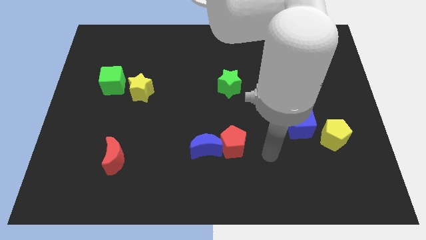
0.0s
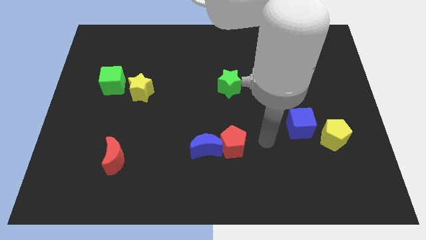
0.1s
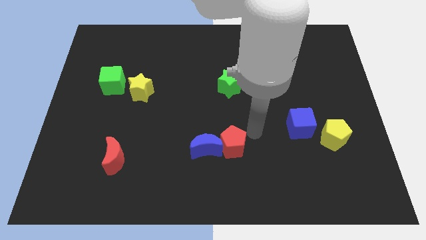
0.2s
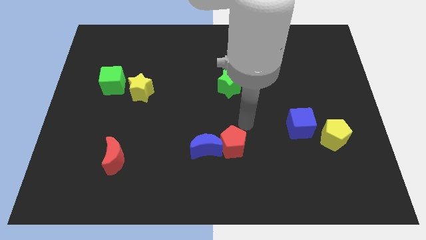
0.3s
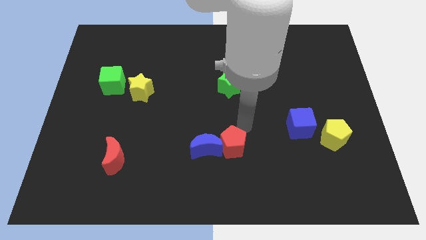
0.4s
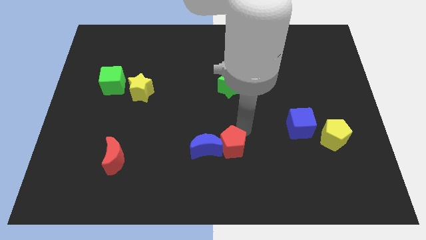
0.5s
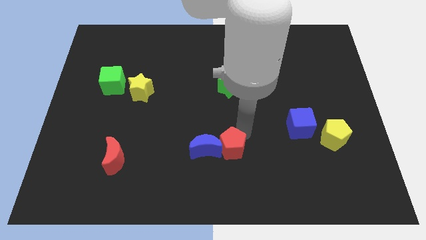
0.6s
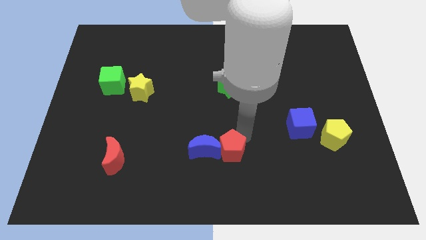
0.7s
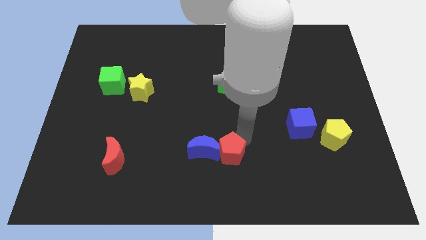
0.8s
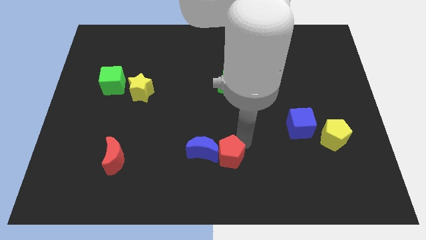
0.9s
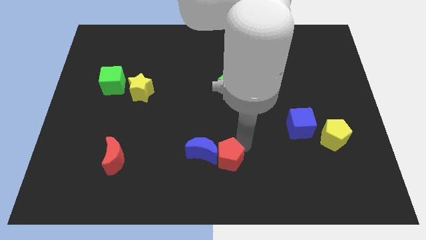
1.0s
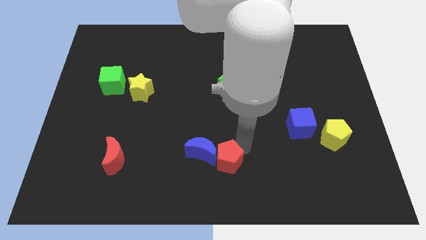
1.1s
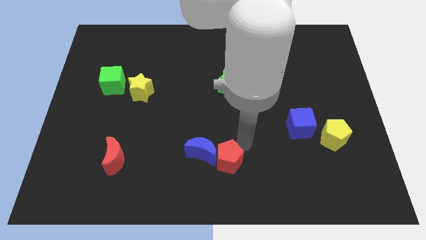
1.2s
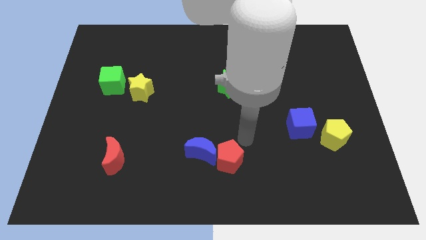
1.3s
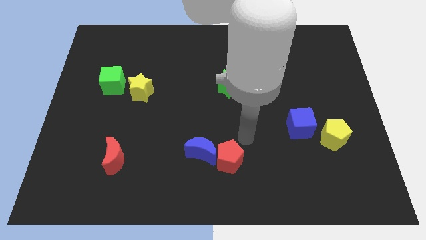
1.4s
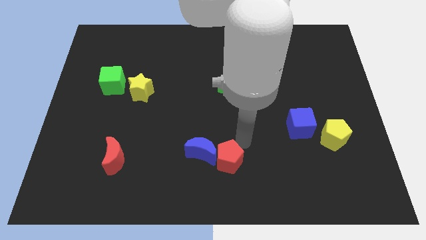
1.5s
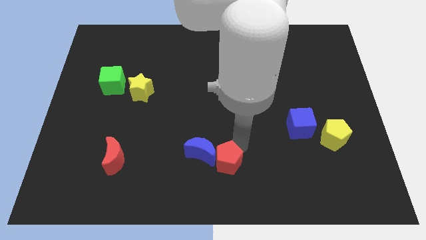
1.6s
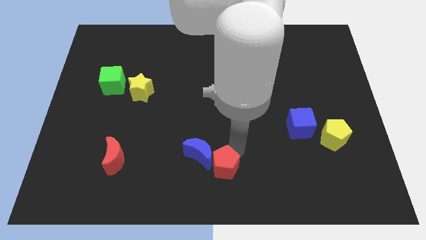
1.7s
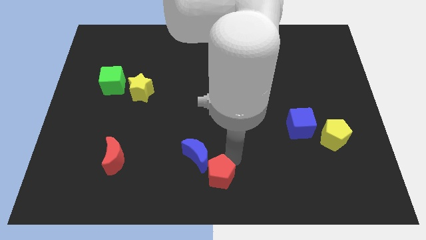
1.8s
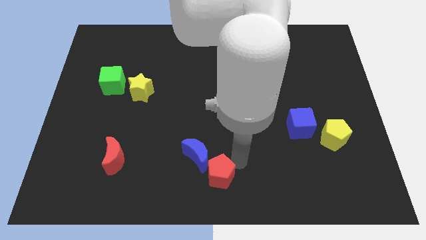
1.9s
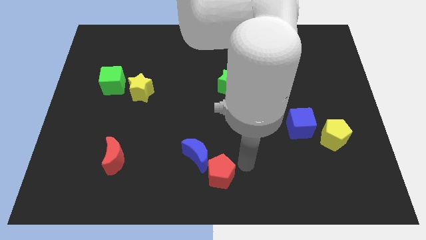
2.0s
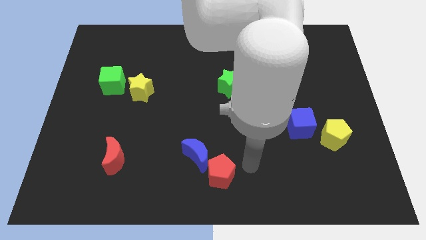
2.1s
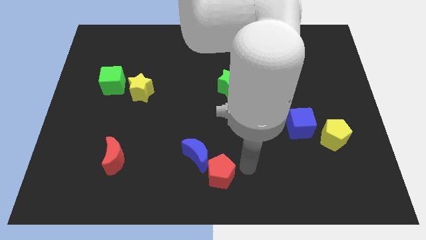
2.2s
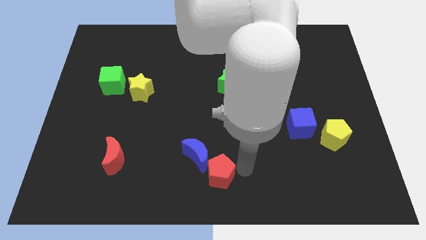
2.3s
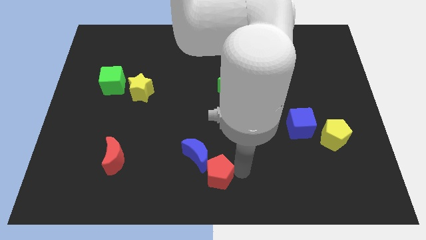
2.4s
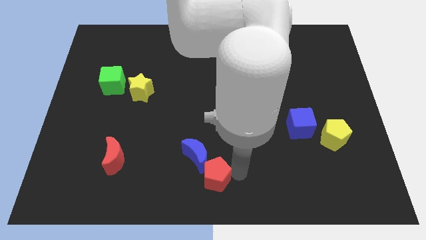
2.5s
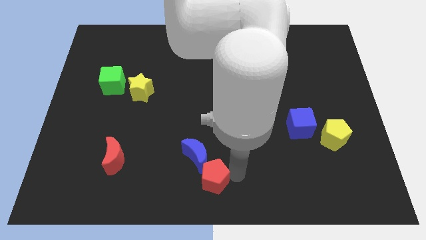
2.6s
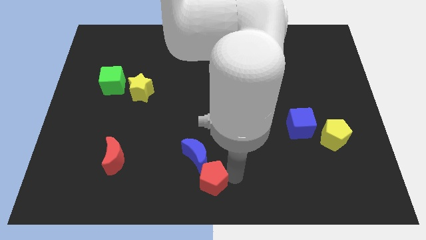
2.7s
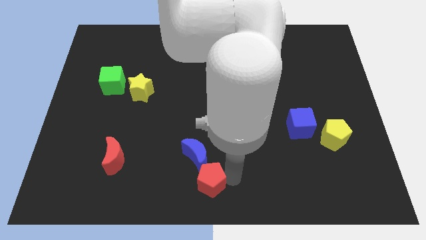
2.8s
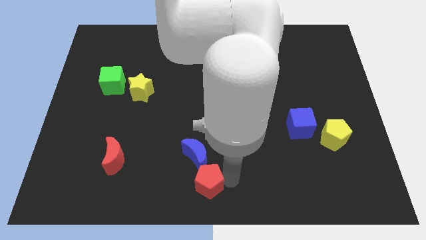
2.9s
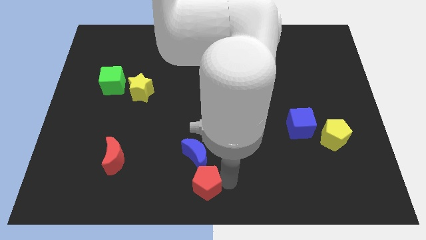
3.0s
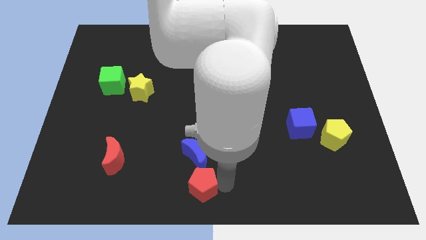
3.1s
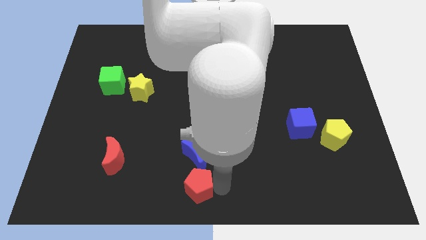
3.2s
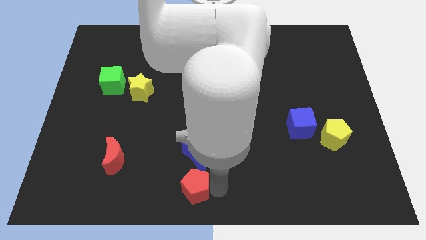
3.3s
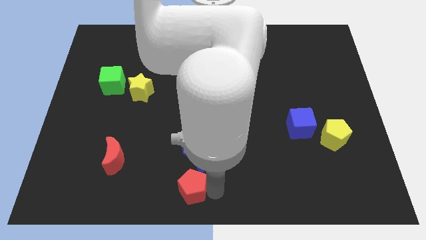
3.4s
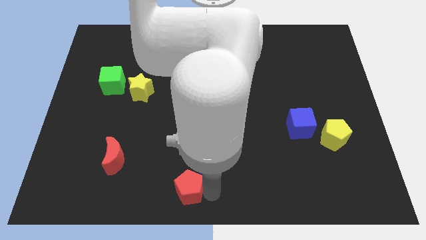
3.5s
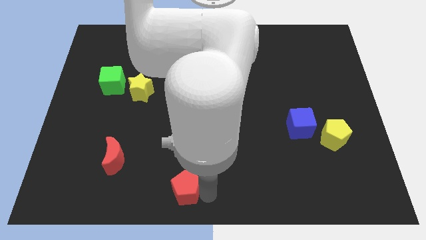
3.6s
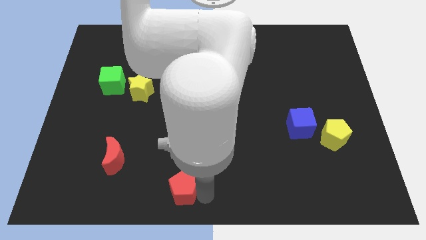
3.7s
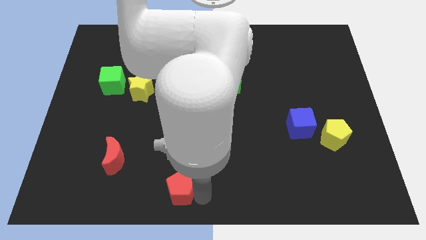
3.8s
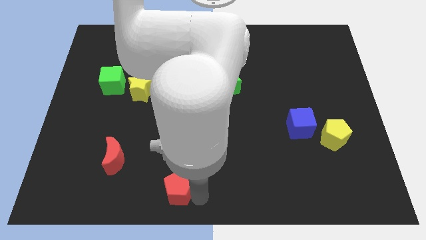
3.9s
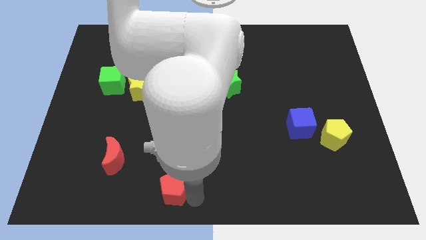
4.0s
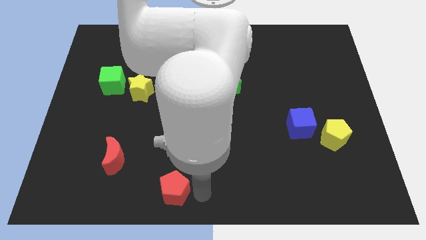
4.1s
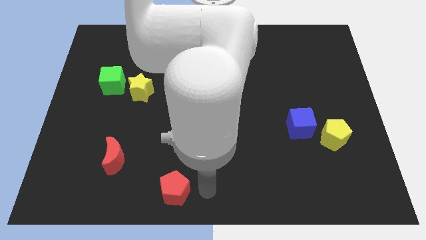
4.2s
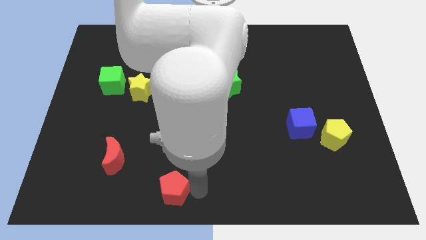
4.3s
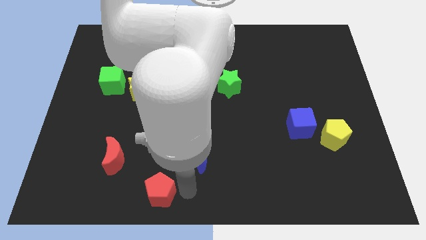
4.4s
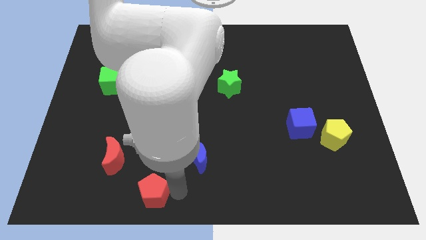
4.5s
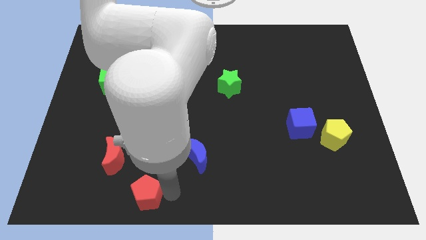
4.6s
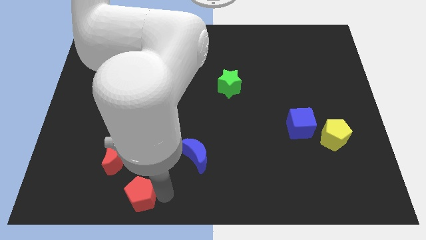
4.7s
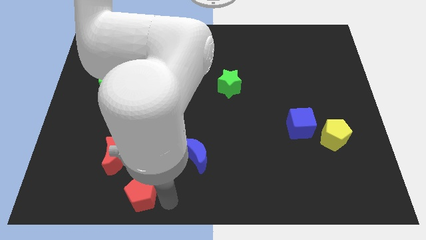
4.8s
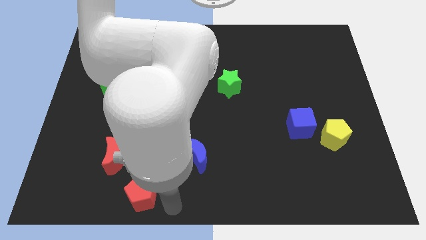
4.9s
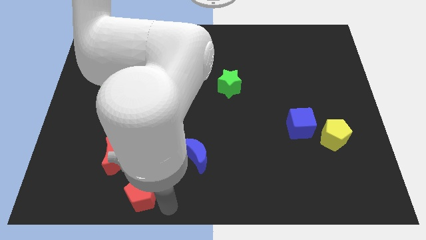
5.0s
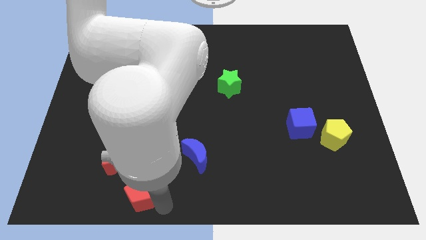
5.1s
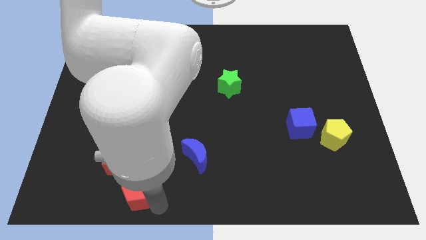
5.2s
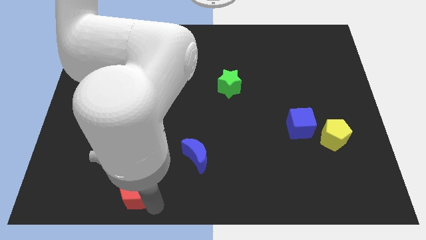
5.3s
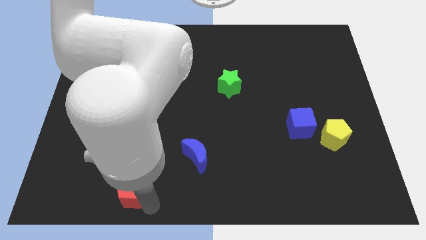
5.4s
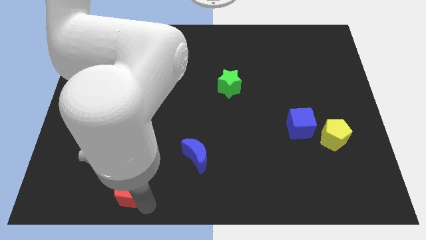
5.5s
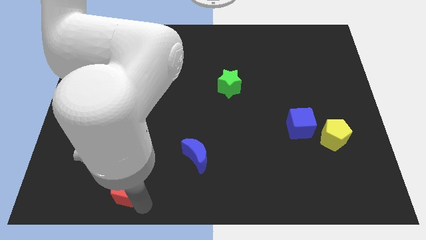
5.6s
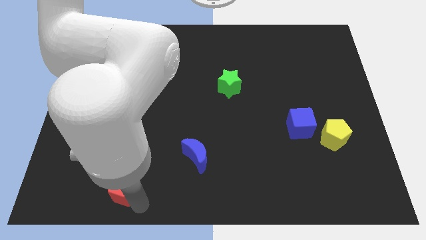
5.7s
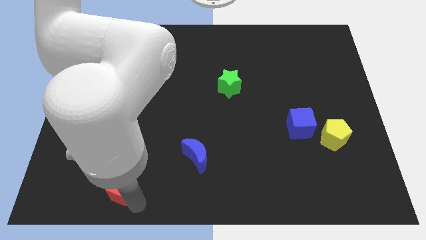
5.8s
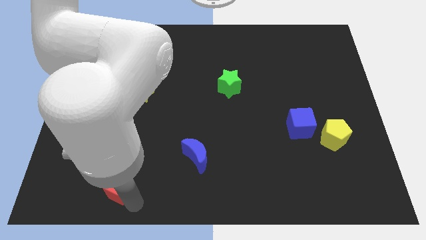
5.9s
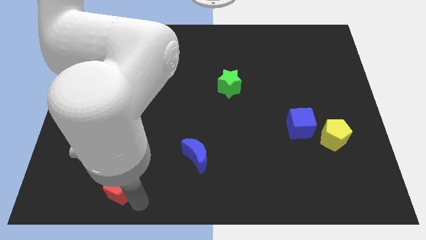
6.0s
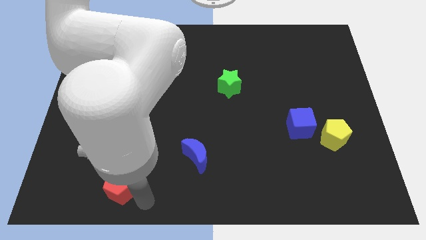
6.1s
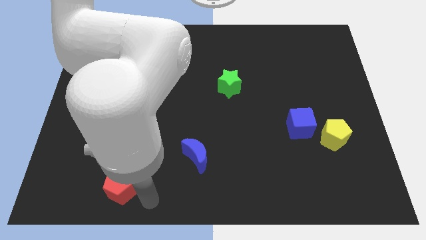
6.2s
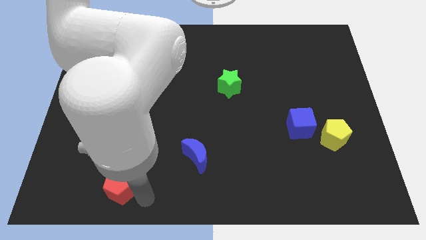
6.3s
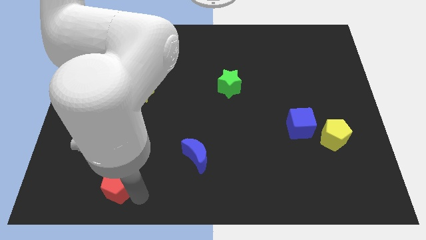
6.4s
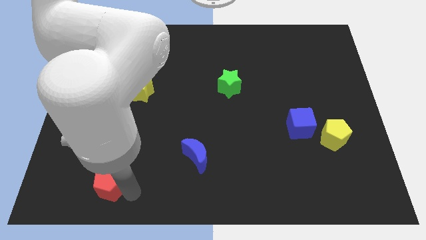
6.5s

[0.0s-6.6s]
move the red pentagon diagonally down and to the left of the red moon
